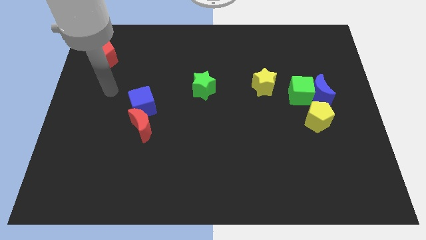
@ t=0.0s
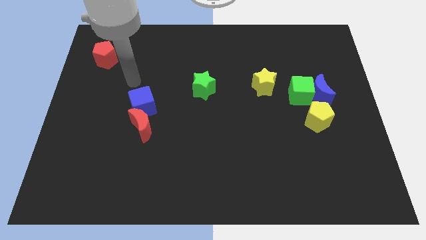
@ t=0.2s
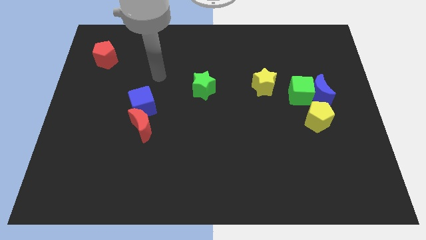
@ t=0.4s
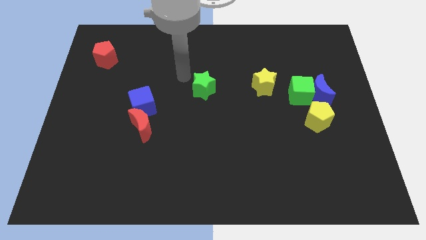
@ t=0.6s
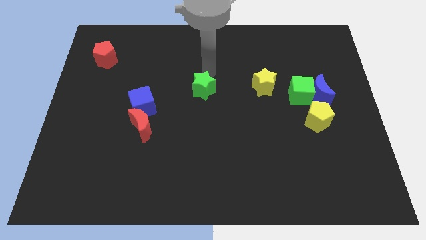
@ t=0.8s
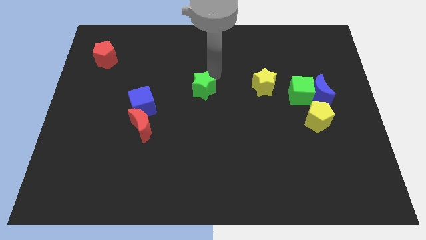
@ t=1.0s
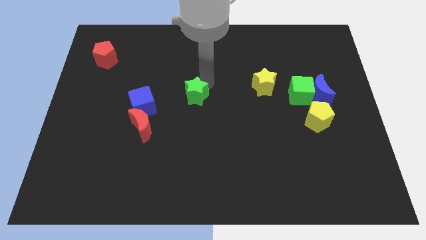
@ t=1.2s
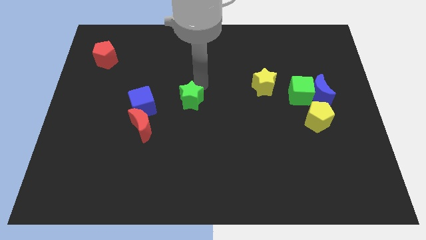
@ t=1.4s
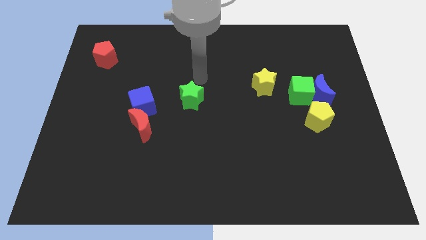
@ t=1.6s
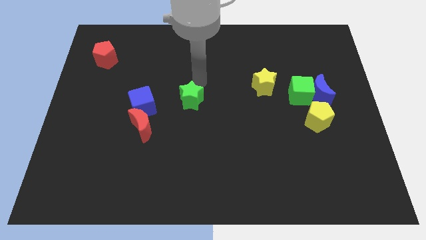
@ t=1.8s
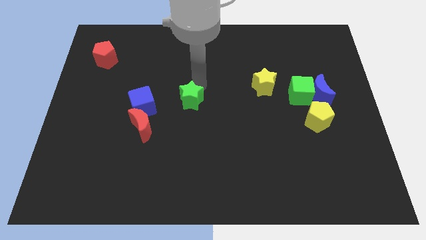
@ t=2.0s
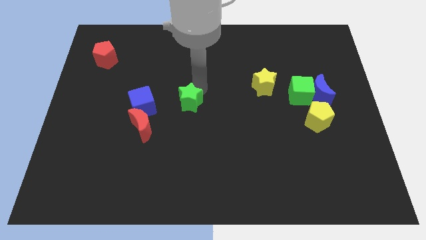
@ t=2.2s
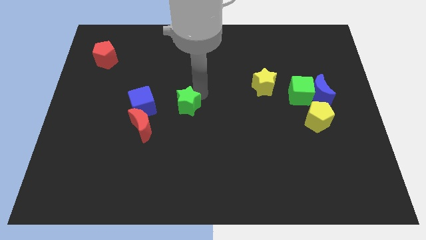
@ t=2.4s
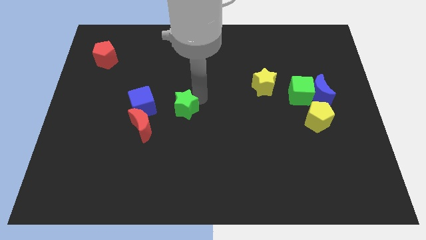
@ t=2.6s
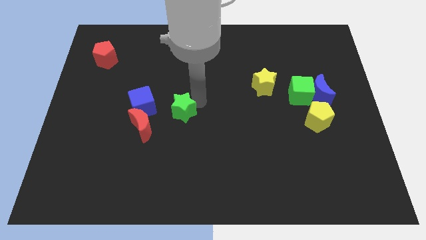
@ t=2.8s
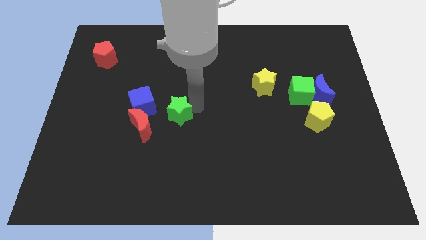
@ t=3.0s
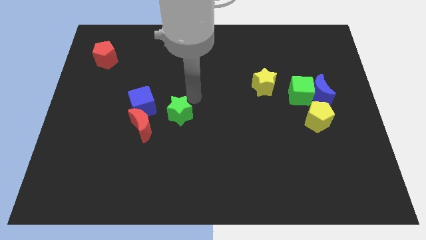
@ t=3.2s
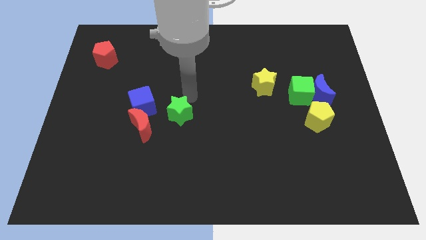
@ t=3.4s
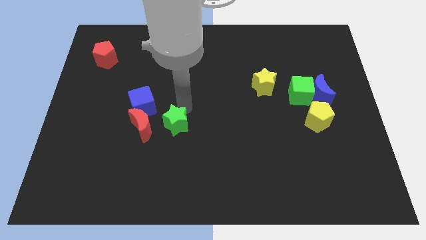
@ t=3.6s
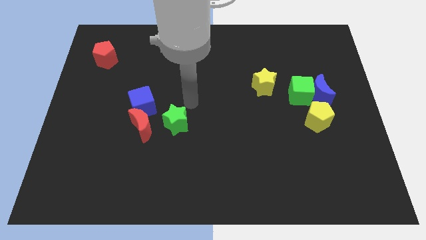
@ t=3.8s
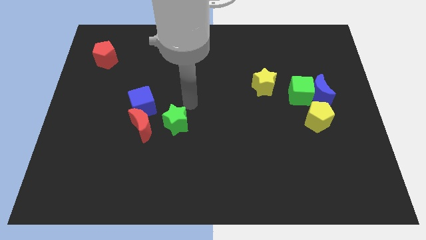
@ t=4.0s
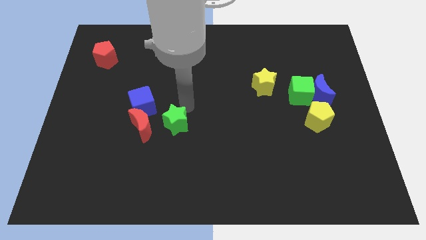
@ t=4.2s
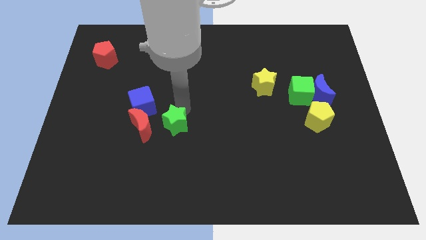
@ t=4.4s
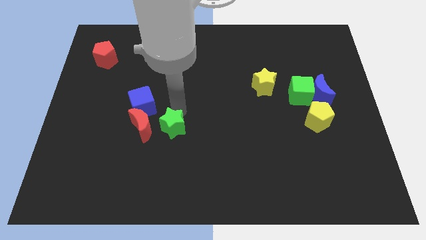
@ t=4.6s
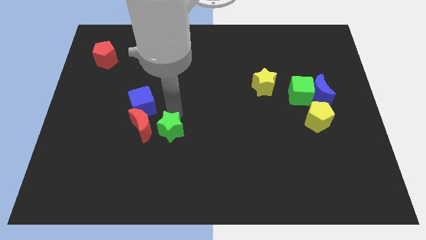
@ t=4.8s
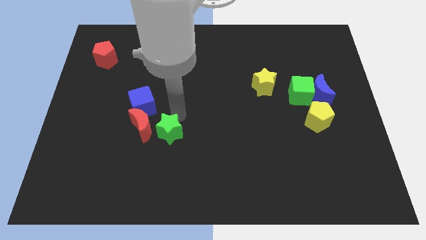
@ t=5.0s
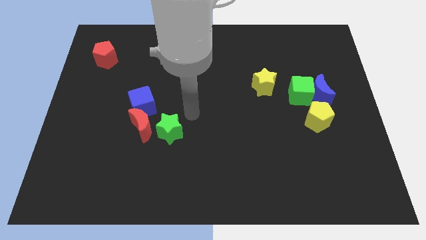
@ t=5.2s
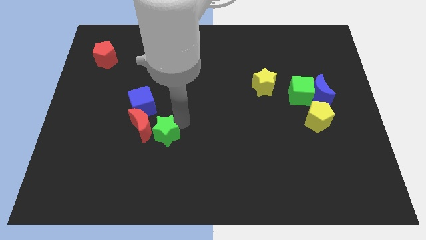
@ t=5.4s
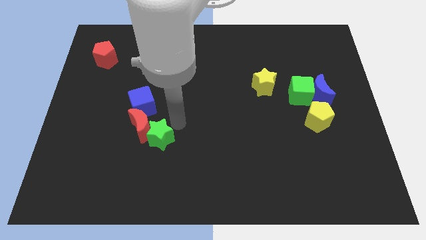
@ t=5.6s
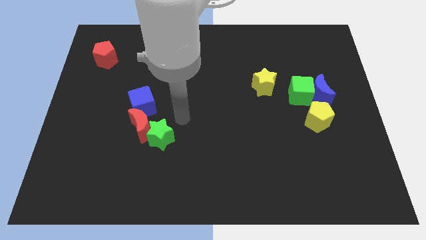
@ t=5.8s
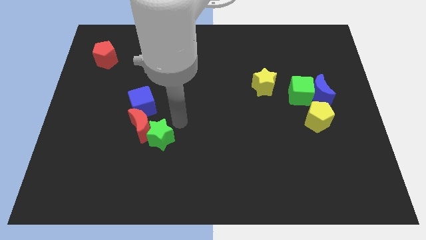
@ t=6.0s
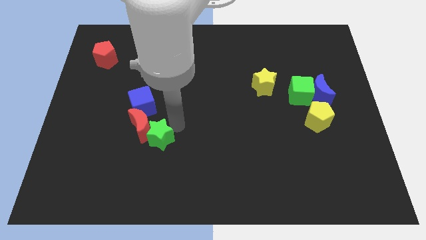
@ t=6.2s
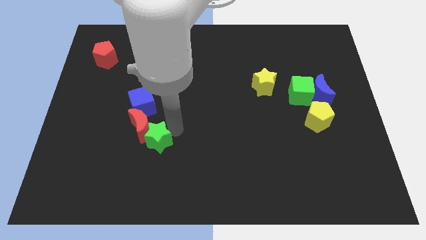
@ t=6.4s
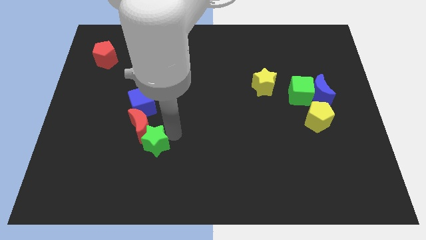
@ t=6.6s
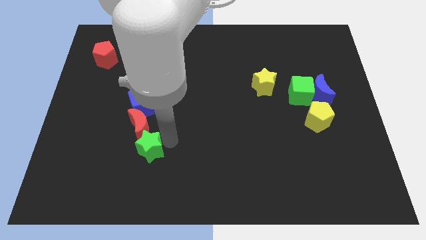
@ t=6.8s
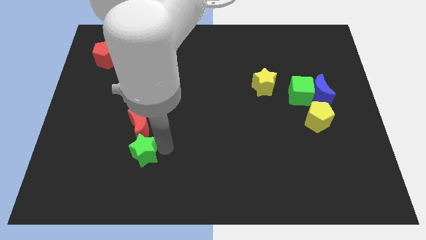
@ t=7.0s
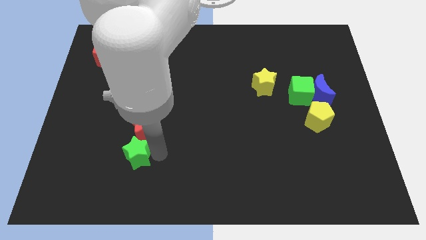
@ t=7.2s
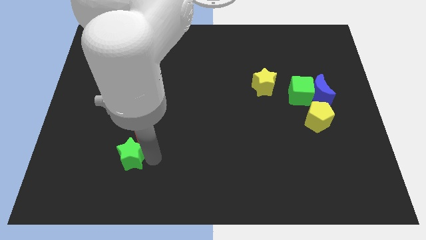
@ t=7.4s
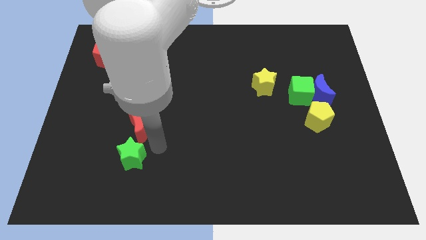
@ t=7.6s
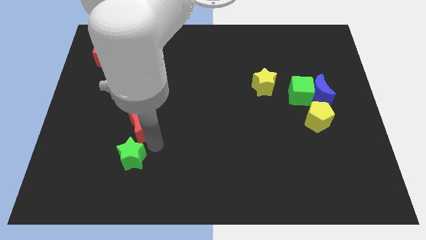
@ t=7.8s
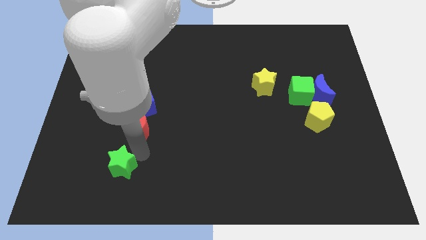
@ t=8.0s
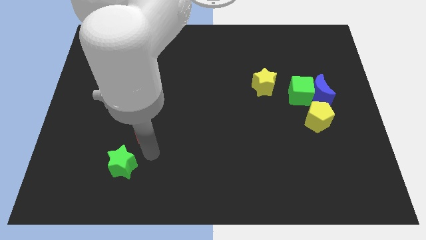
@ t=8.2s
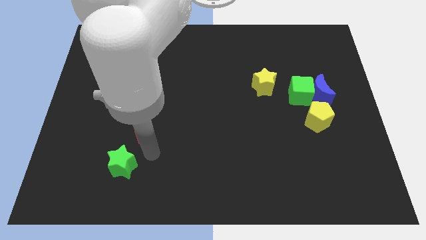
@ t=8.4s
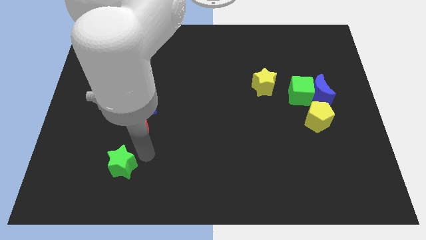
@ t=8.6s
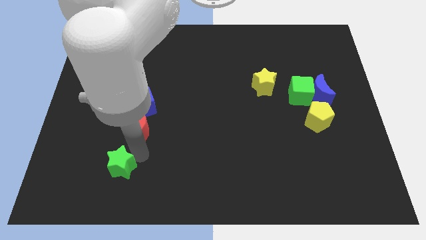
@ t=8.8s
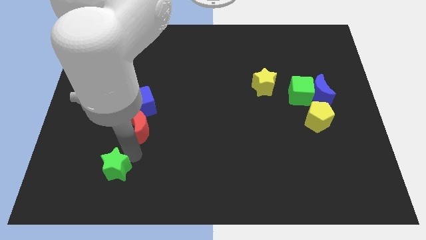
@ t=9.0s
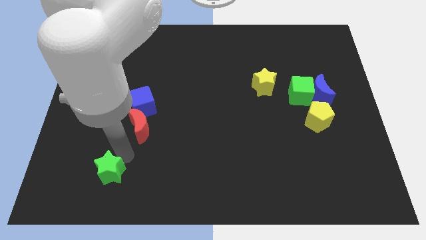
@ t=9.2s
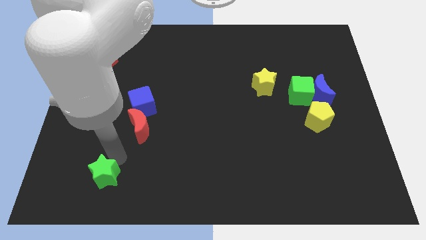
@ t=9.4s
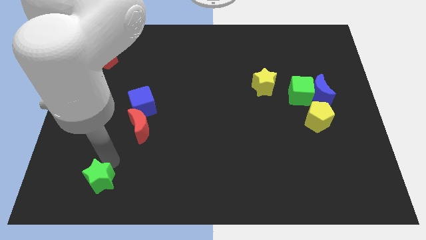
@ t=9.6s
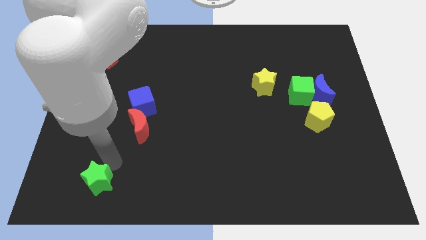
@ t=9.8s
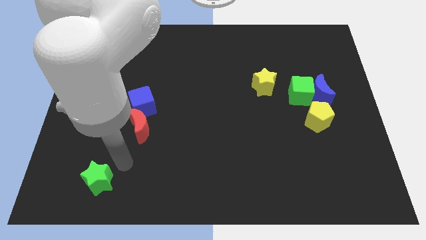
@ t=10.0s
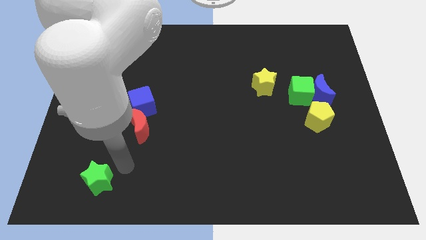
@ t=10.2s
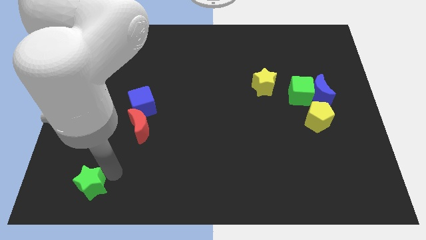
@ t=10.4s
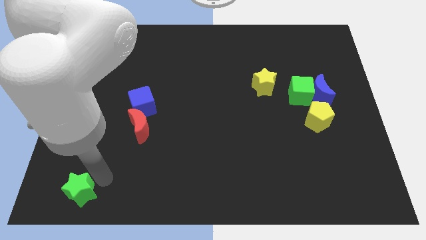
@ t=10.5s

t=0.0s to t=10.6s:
push the green star to the bottom left of the board
